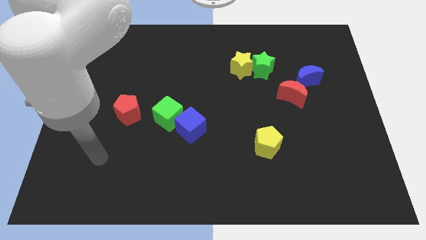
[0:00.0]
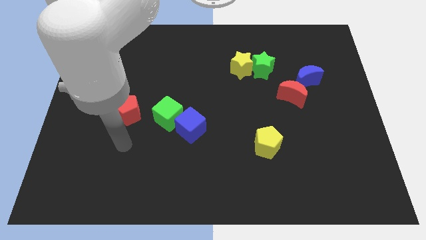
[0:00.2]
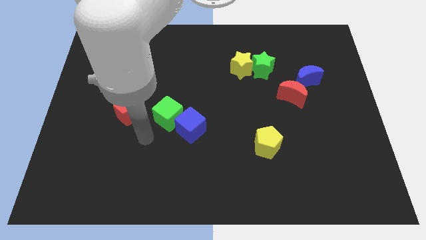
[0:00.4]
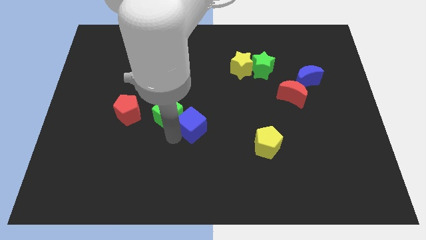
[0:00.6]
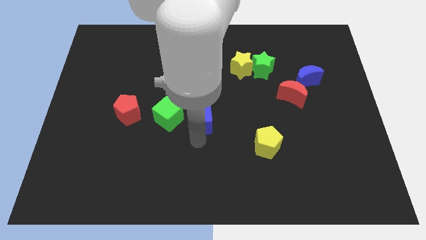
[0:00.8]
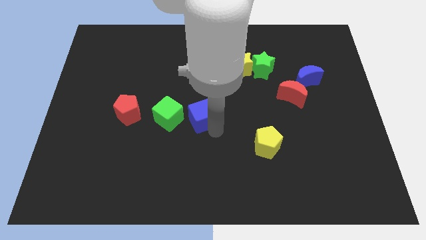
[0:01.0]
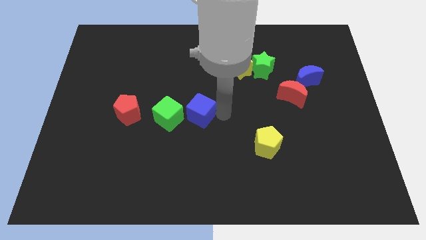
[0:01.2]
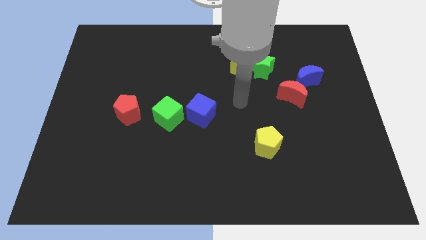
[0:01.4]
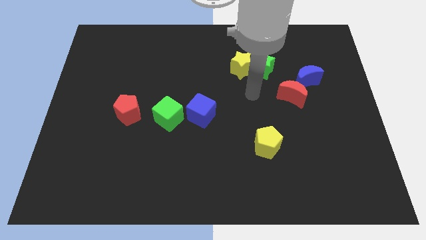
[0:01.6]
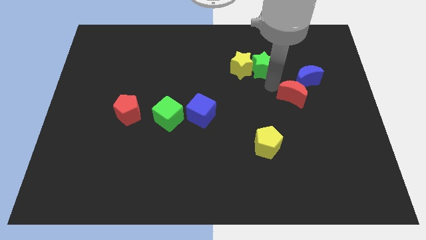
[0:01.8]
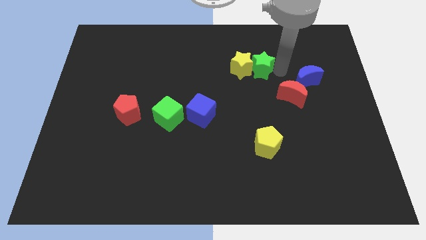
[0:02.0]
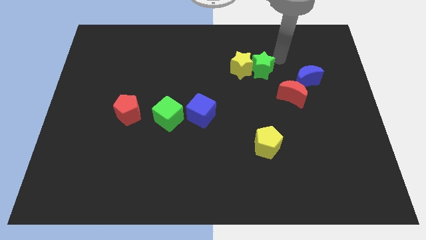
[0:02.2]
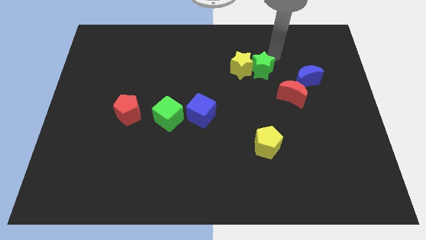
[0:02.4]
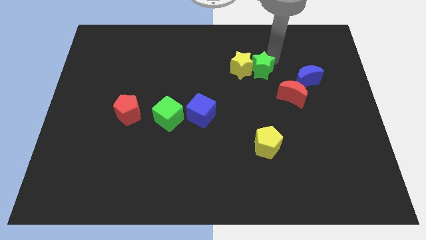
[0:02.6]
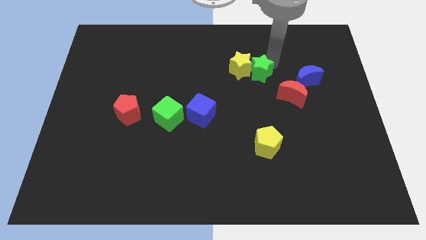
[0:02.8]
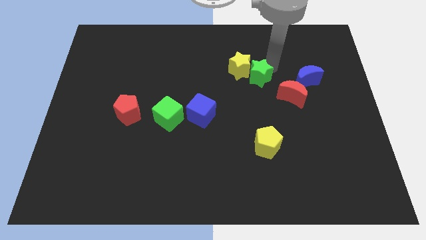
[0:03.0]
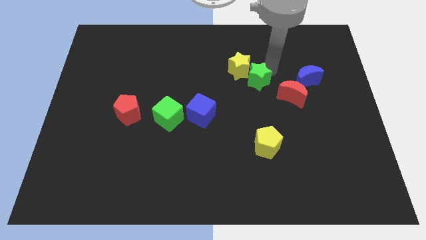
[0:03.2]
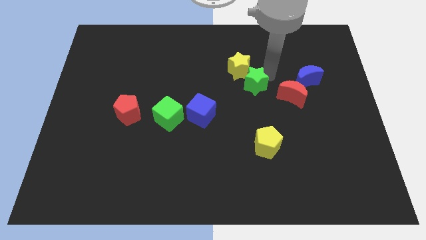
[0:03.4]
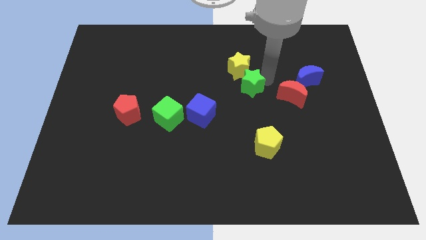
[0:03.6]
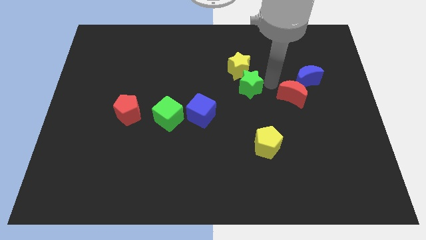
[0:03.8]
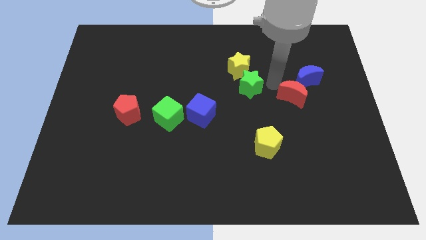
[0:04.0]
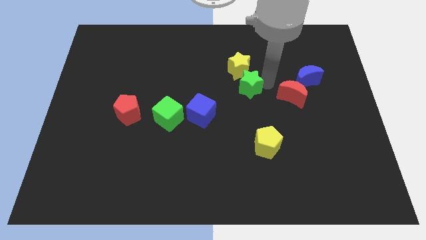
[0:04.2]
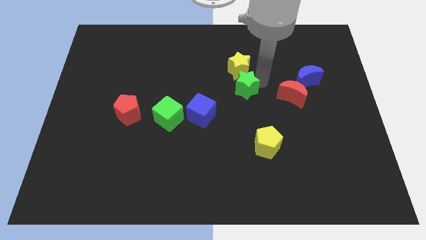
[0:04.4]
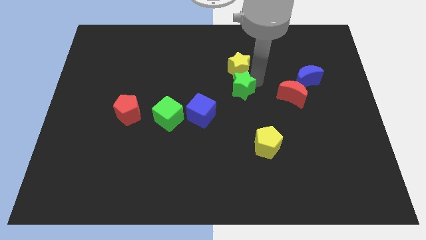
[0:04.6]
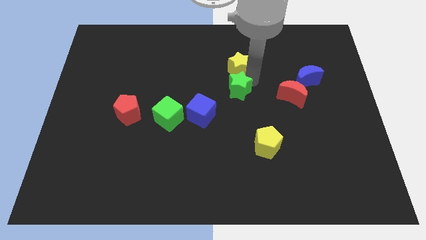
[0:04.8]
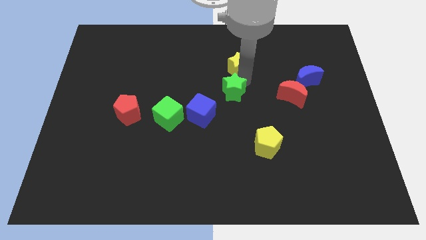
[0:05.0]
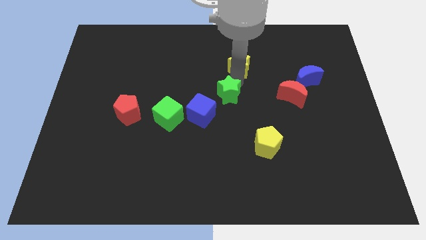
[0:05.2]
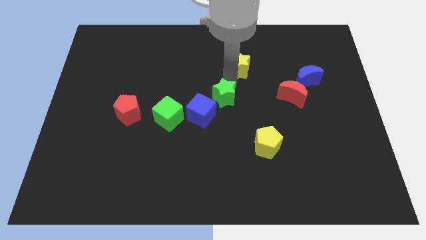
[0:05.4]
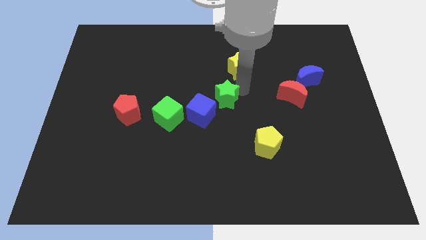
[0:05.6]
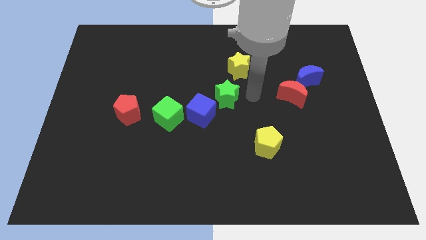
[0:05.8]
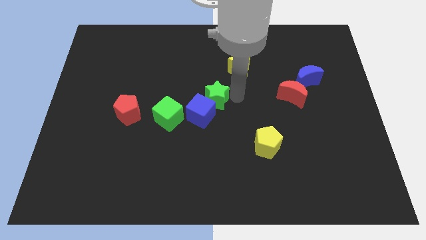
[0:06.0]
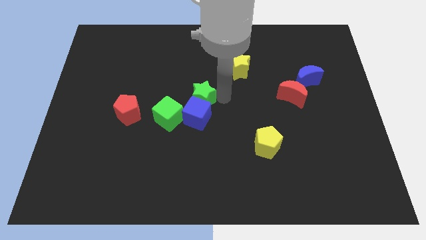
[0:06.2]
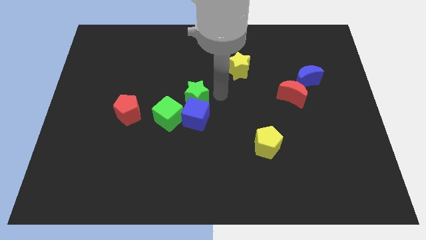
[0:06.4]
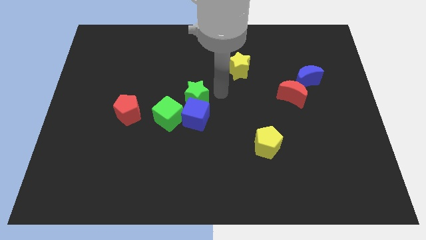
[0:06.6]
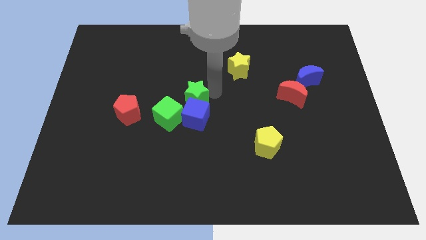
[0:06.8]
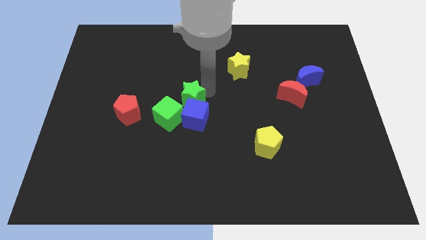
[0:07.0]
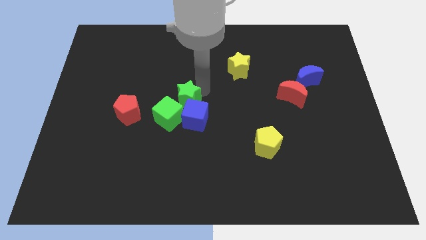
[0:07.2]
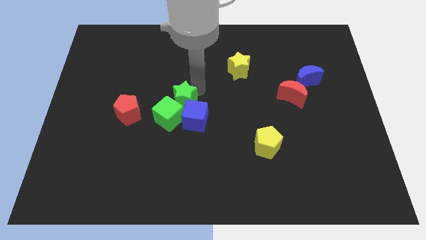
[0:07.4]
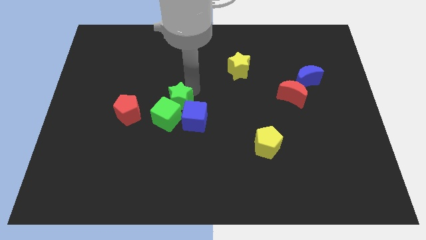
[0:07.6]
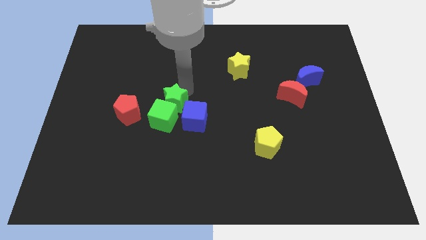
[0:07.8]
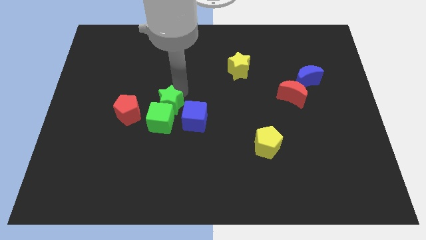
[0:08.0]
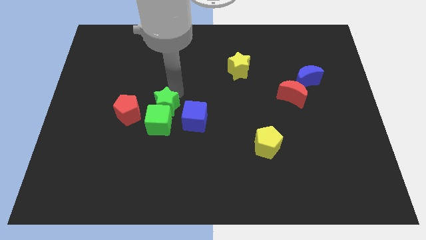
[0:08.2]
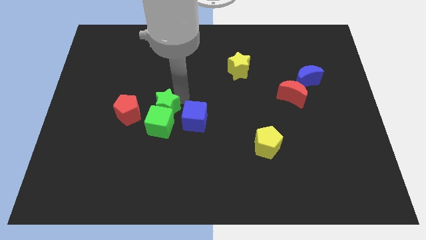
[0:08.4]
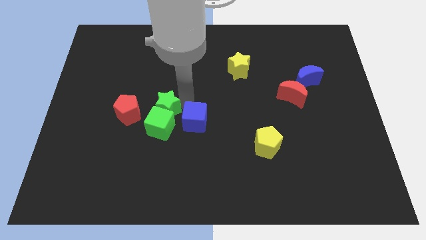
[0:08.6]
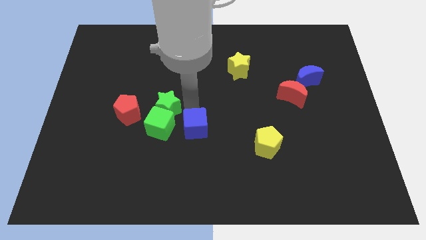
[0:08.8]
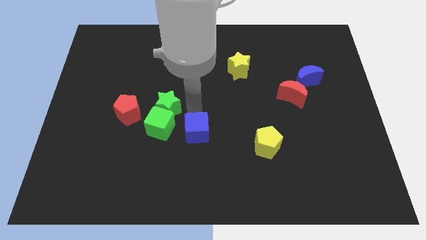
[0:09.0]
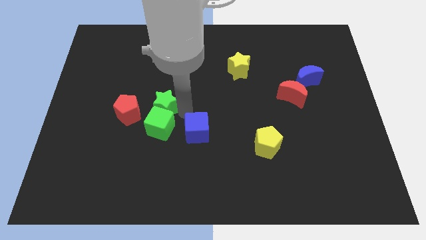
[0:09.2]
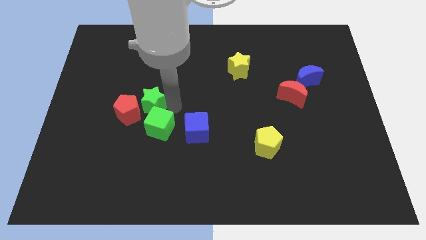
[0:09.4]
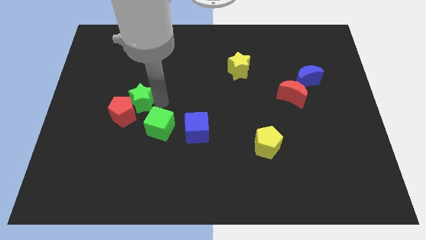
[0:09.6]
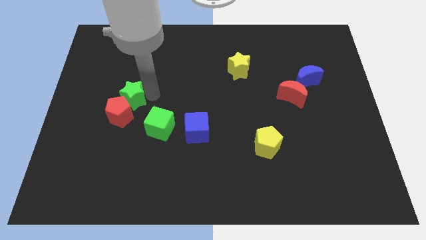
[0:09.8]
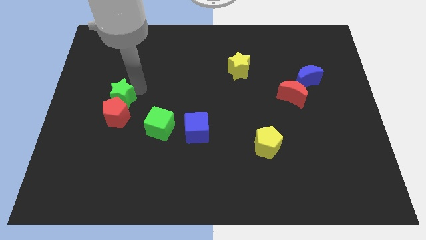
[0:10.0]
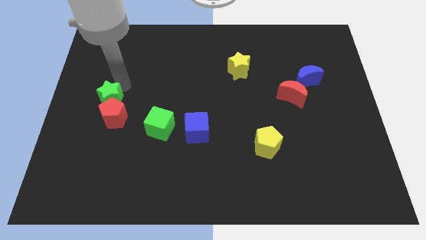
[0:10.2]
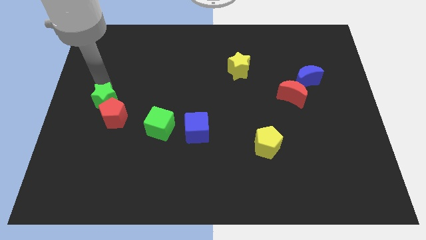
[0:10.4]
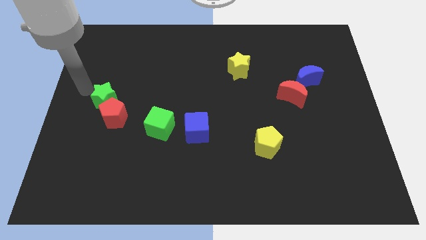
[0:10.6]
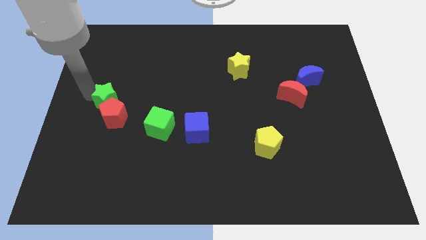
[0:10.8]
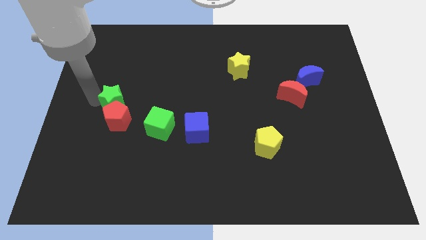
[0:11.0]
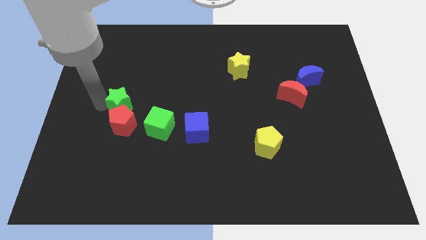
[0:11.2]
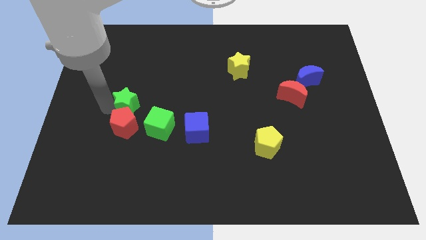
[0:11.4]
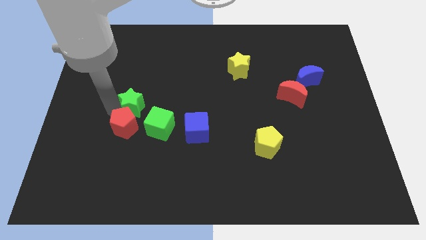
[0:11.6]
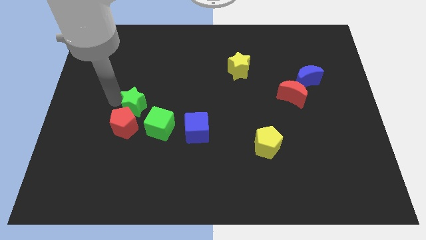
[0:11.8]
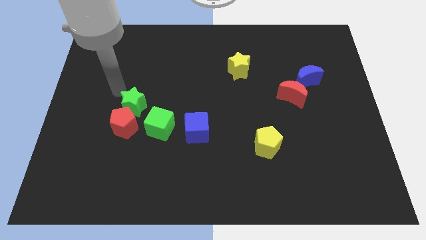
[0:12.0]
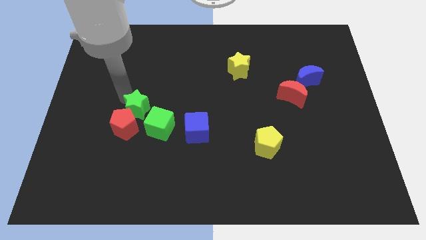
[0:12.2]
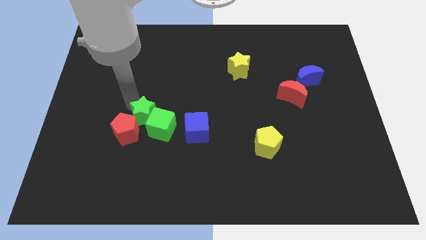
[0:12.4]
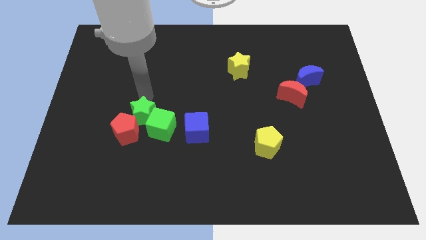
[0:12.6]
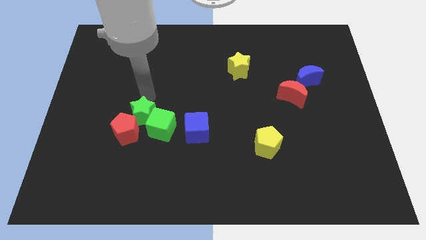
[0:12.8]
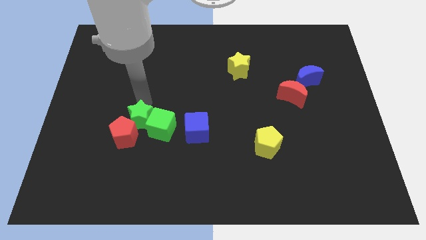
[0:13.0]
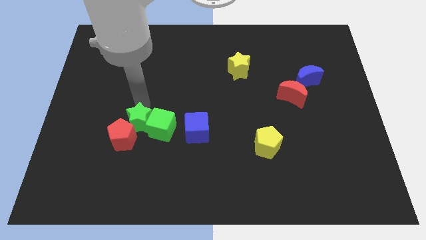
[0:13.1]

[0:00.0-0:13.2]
push the green star diagonally down and to the left of the green cube

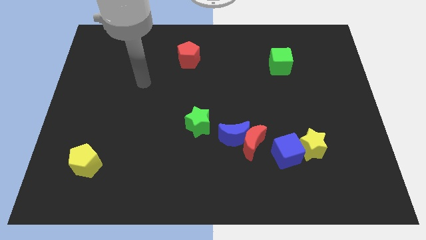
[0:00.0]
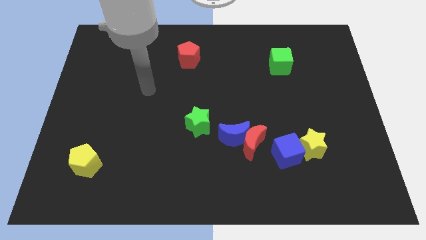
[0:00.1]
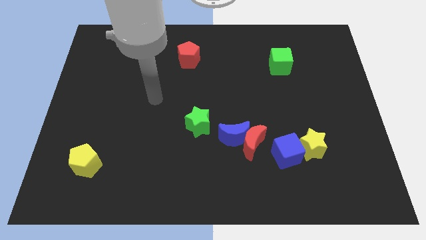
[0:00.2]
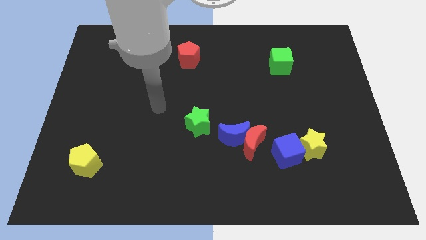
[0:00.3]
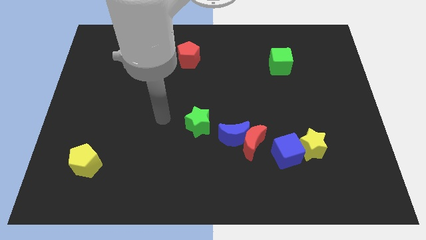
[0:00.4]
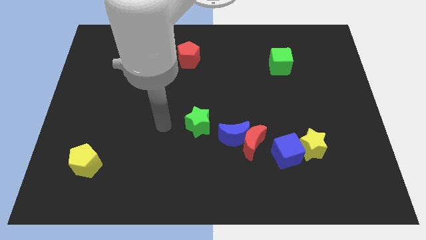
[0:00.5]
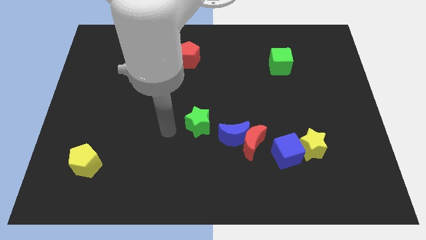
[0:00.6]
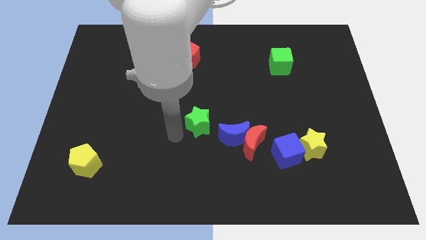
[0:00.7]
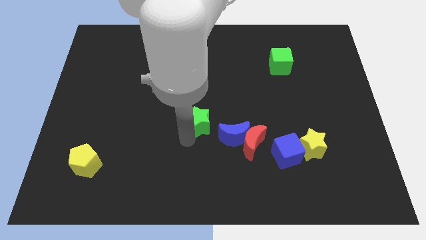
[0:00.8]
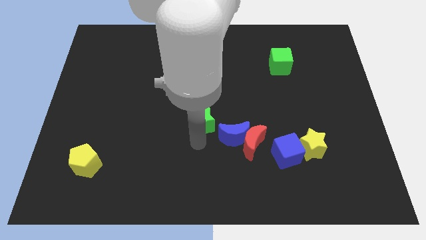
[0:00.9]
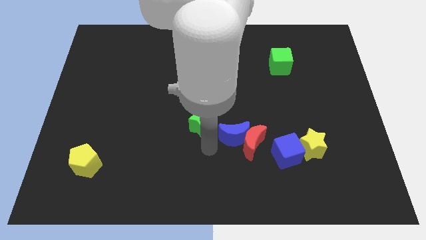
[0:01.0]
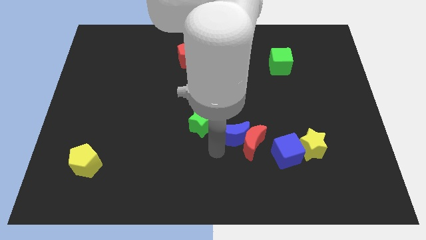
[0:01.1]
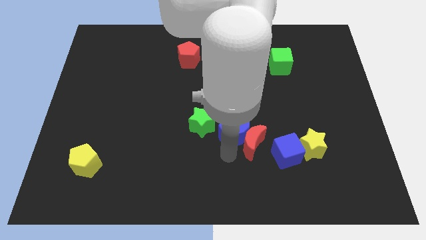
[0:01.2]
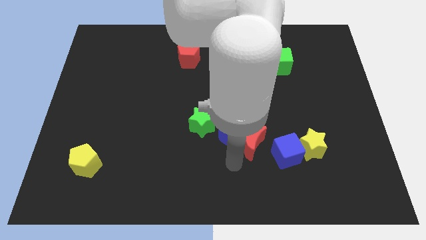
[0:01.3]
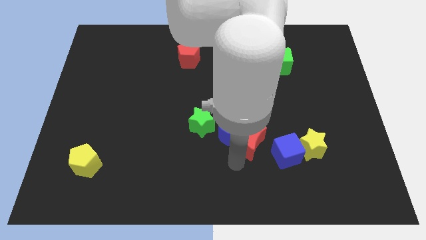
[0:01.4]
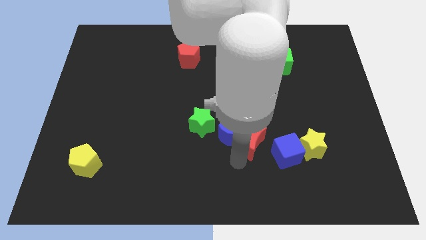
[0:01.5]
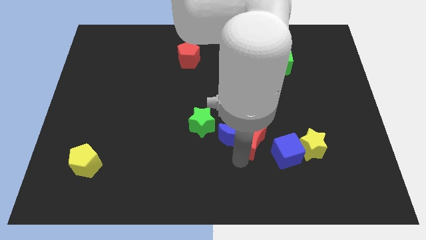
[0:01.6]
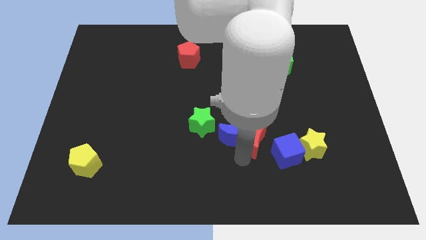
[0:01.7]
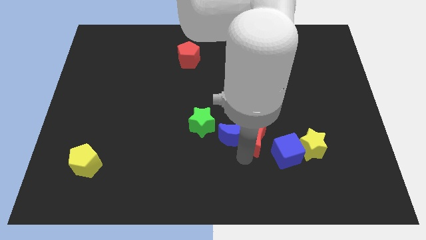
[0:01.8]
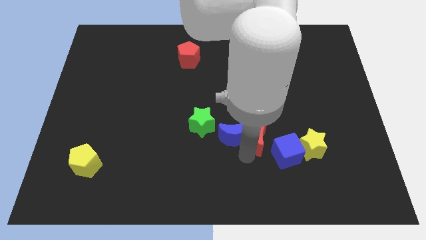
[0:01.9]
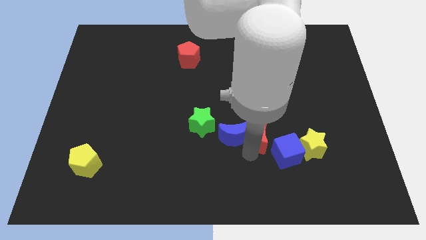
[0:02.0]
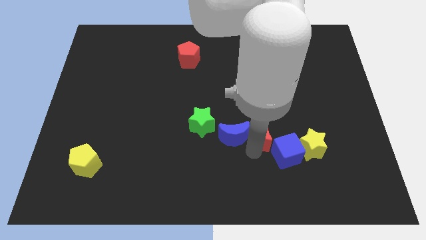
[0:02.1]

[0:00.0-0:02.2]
put the red moon to the top of the blue cube
